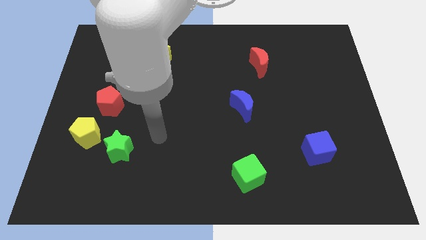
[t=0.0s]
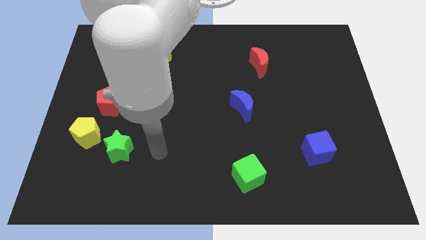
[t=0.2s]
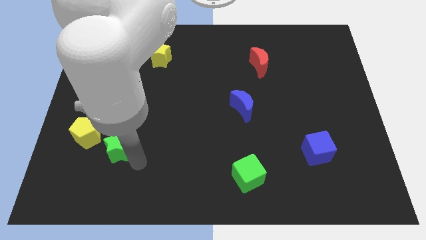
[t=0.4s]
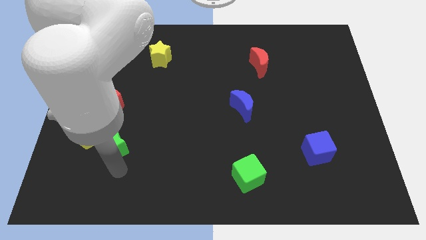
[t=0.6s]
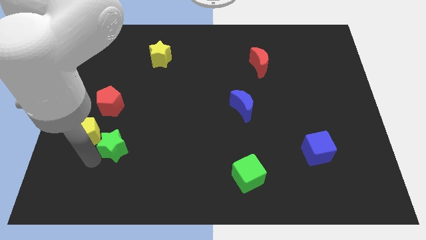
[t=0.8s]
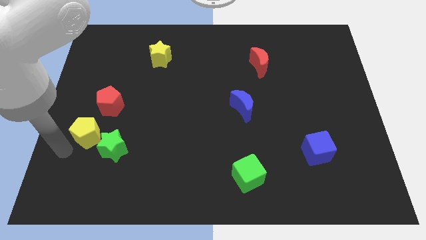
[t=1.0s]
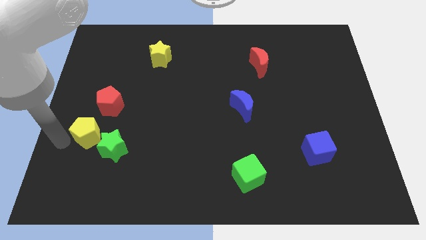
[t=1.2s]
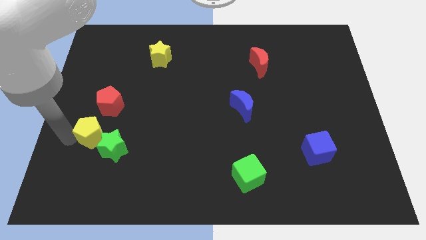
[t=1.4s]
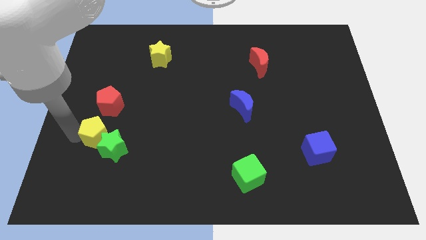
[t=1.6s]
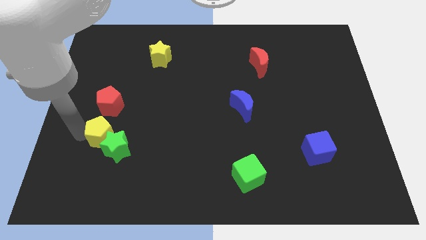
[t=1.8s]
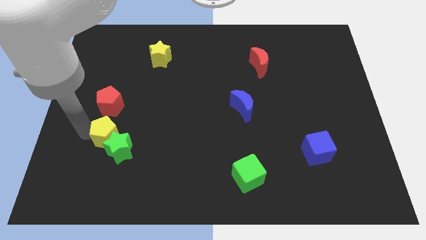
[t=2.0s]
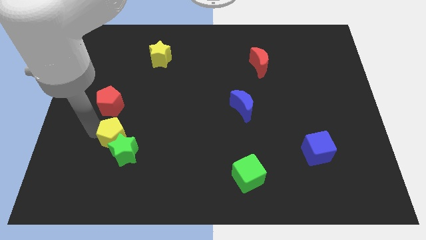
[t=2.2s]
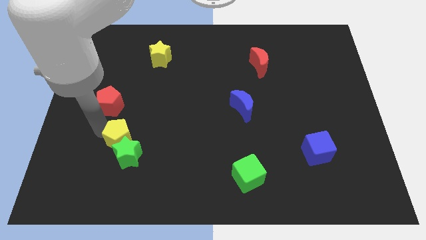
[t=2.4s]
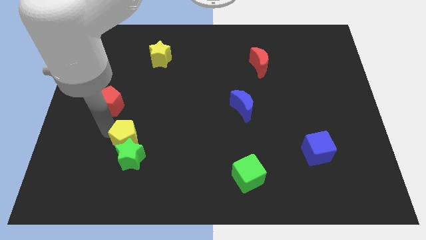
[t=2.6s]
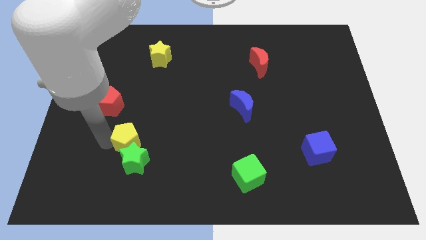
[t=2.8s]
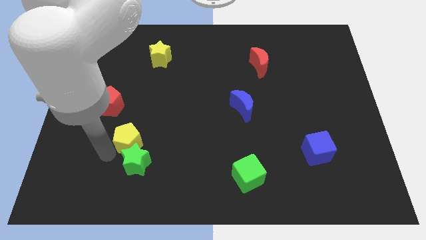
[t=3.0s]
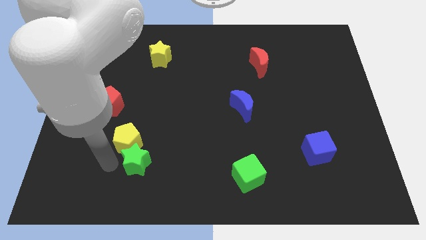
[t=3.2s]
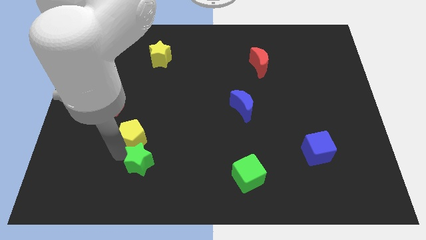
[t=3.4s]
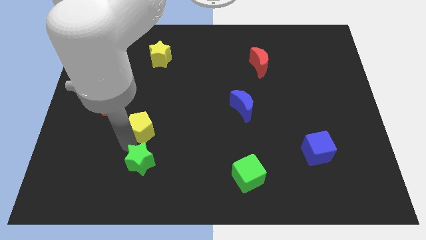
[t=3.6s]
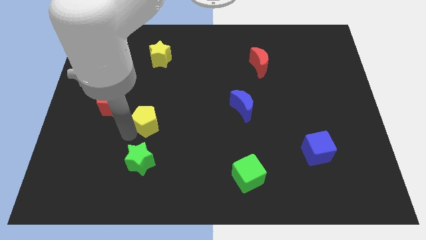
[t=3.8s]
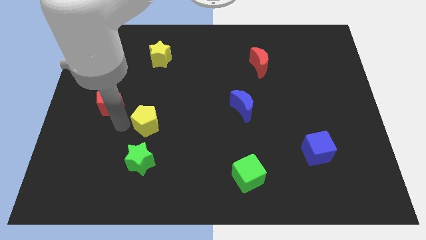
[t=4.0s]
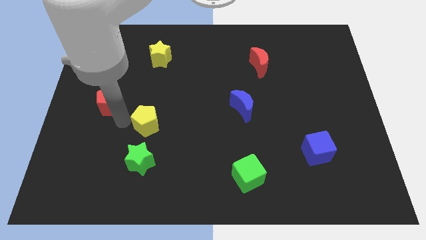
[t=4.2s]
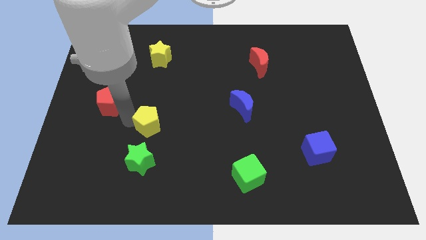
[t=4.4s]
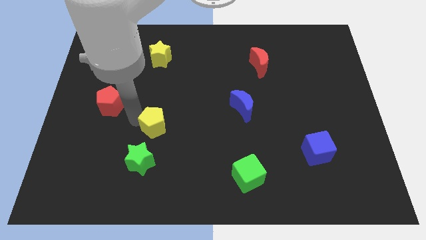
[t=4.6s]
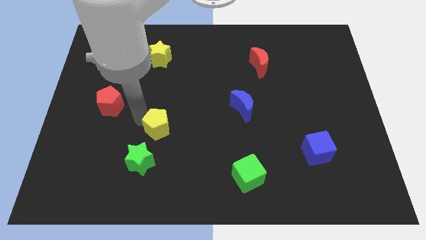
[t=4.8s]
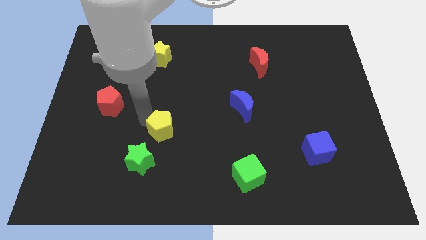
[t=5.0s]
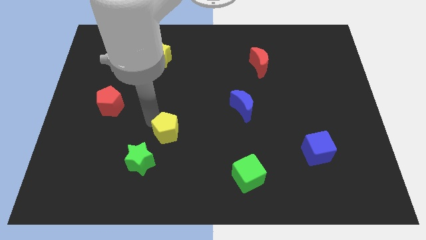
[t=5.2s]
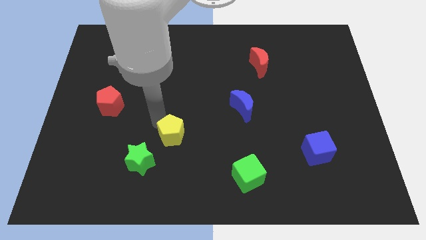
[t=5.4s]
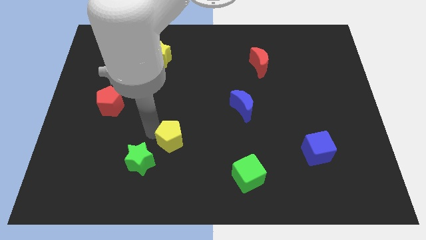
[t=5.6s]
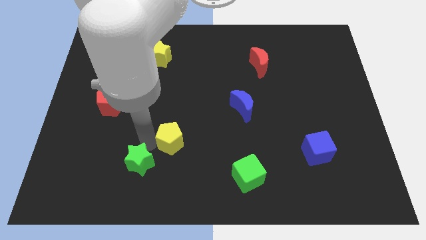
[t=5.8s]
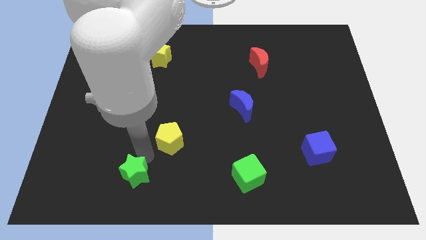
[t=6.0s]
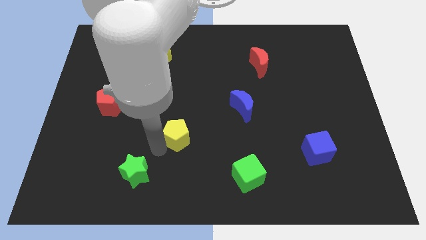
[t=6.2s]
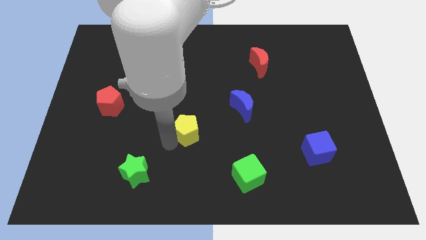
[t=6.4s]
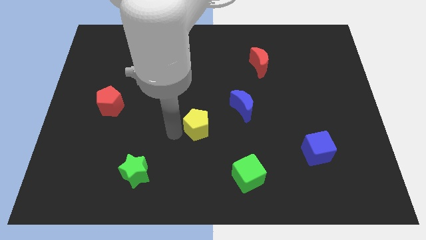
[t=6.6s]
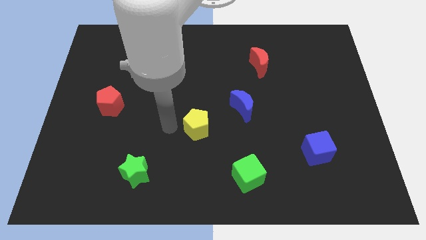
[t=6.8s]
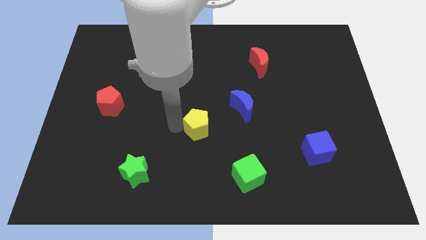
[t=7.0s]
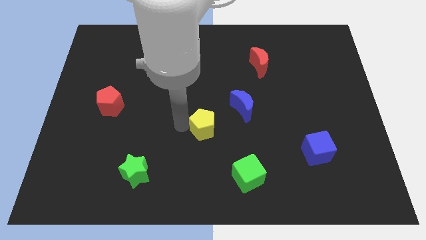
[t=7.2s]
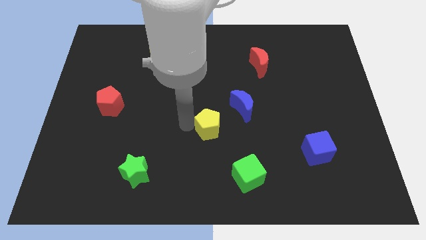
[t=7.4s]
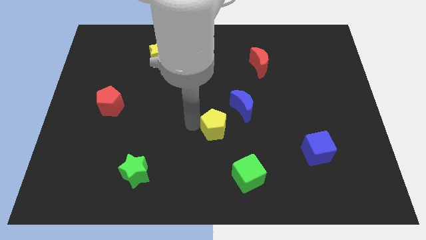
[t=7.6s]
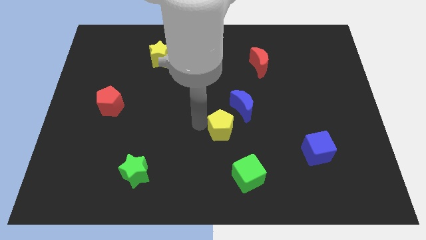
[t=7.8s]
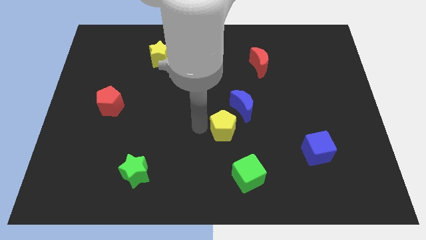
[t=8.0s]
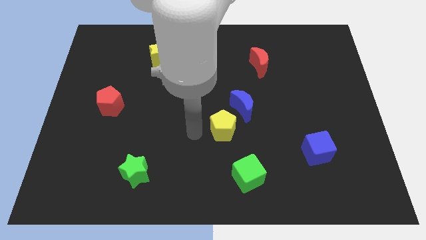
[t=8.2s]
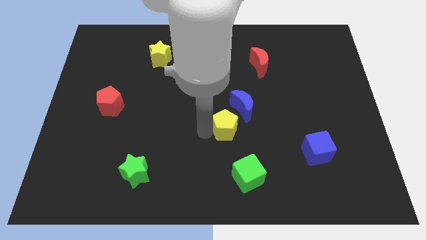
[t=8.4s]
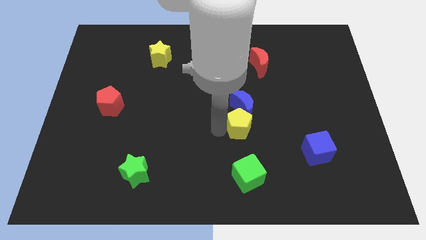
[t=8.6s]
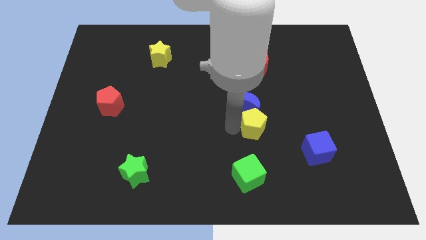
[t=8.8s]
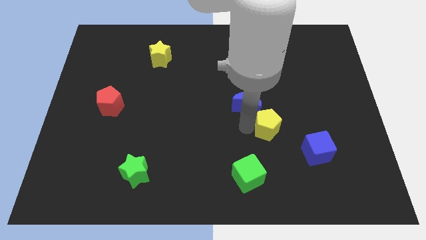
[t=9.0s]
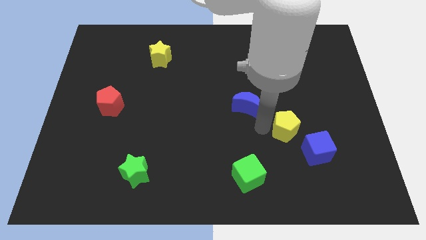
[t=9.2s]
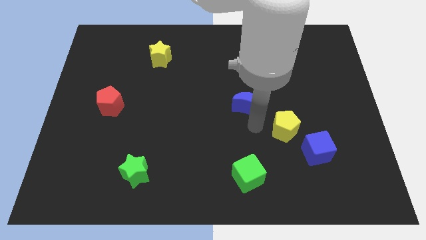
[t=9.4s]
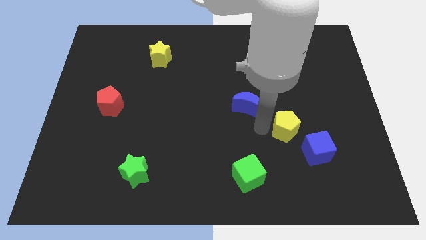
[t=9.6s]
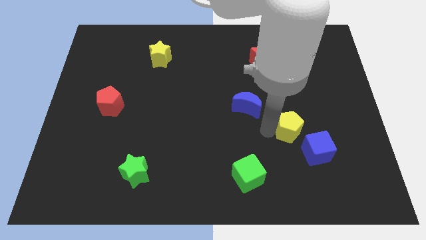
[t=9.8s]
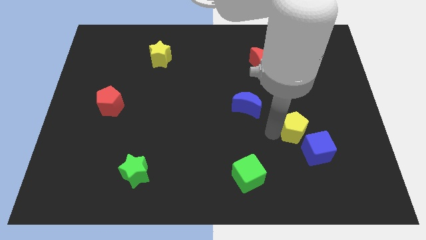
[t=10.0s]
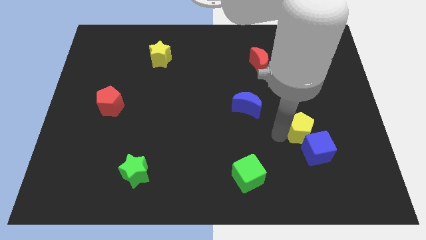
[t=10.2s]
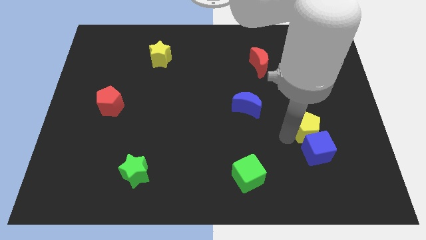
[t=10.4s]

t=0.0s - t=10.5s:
slide the yellow pentagon diagonally up and to the right of the blue cube

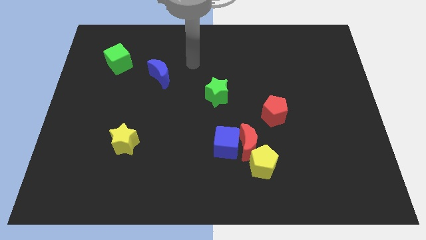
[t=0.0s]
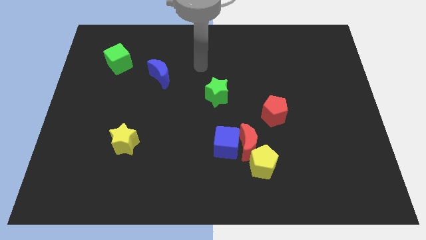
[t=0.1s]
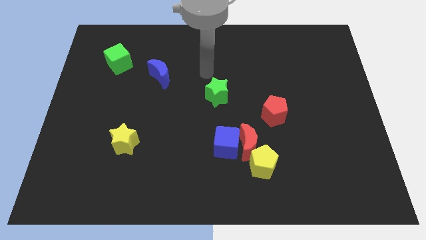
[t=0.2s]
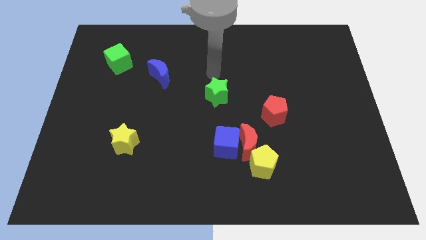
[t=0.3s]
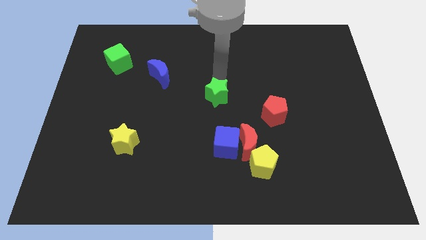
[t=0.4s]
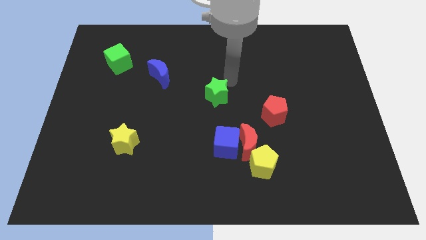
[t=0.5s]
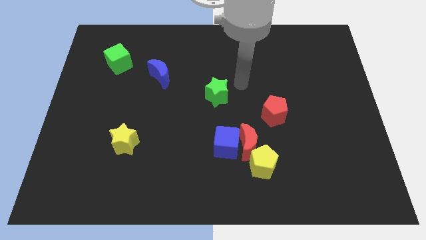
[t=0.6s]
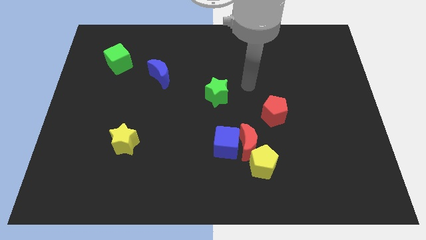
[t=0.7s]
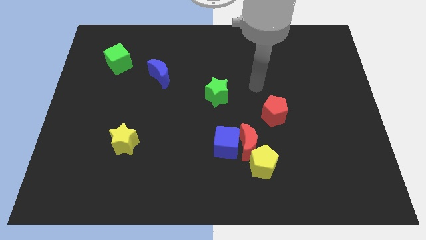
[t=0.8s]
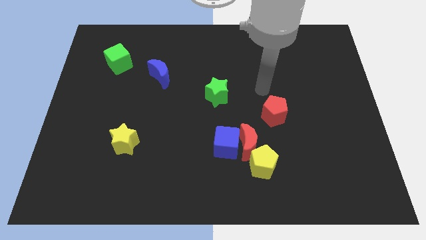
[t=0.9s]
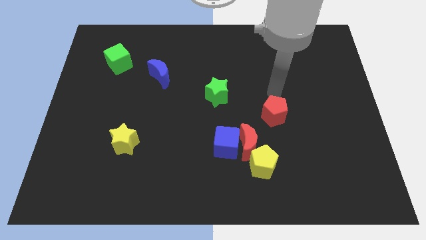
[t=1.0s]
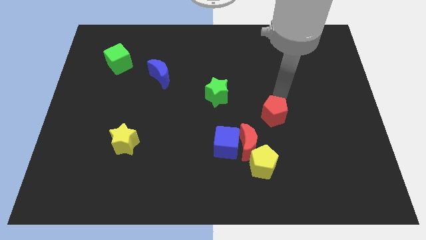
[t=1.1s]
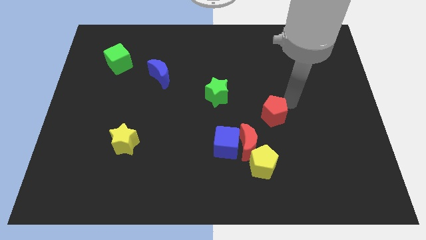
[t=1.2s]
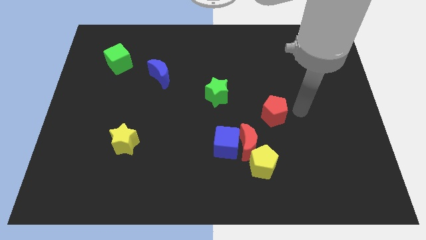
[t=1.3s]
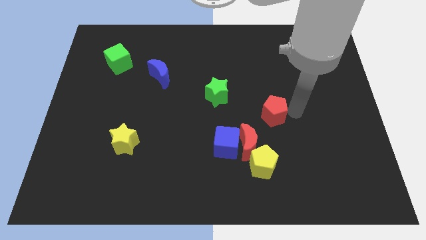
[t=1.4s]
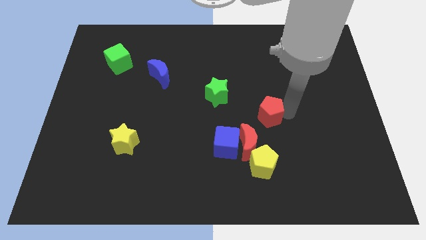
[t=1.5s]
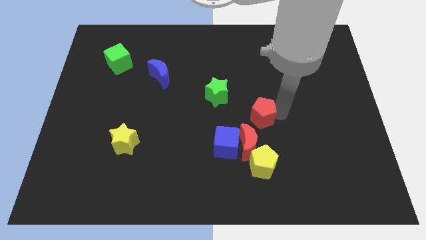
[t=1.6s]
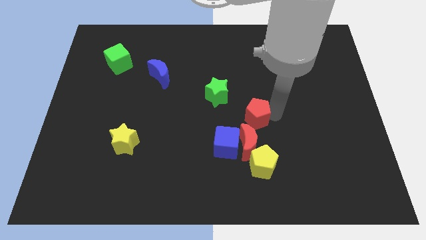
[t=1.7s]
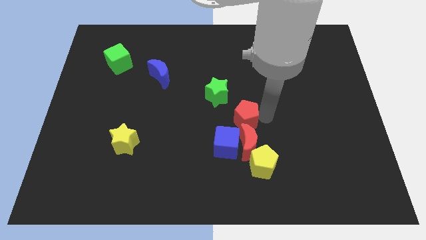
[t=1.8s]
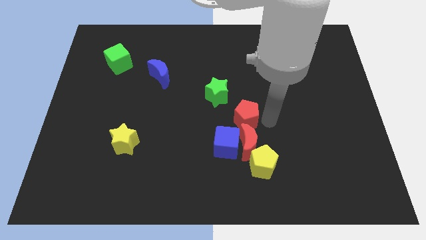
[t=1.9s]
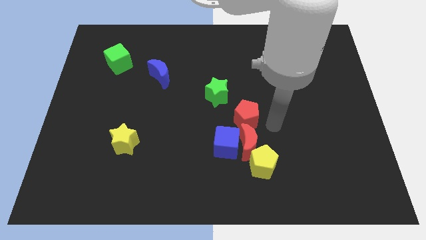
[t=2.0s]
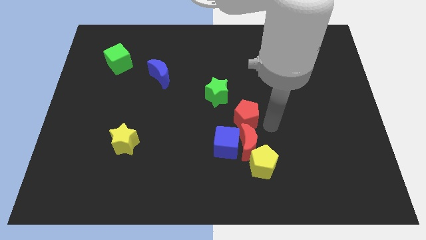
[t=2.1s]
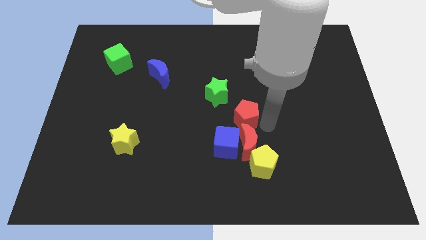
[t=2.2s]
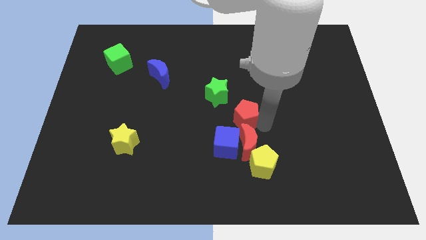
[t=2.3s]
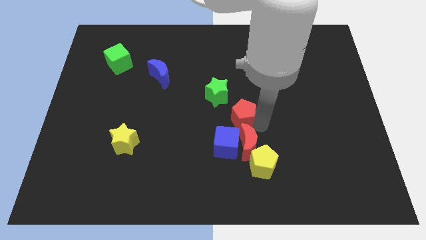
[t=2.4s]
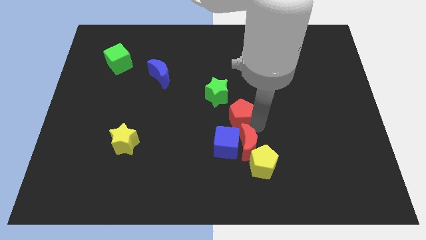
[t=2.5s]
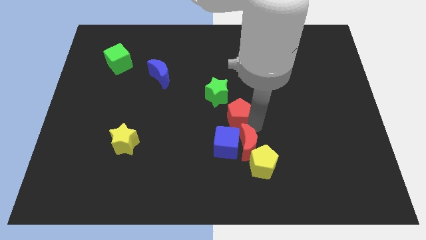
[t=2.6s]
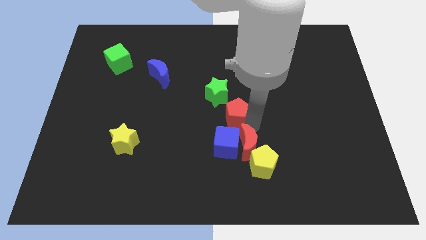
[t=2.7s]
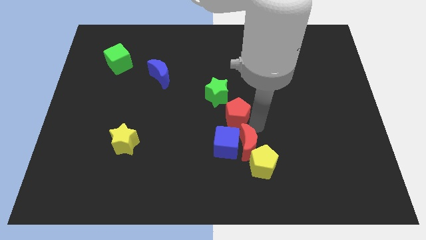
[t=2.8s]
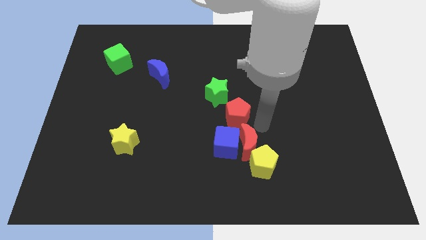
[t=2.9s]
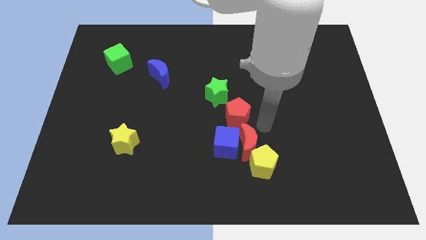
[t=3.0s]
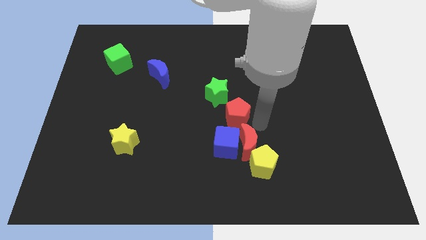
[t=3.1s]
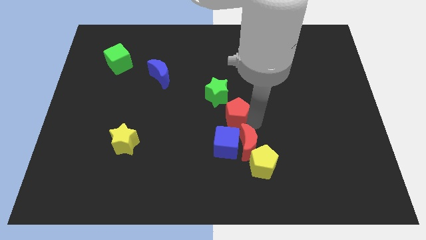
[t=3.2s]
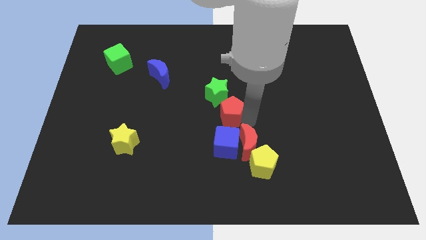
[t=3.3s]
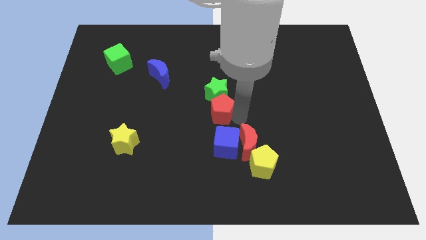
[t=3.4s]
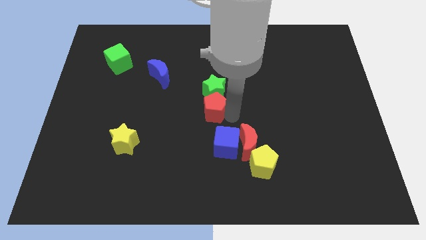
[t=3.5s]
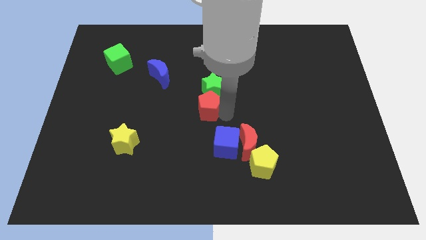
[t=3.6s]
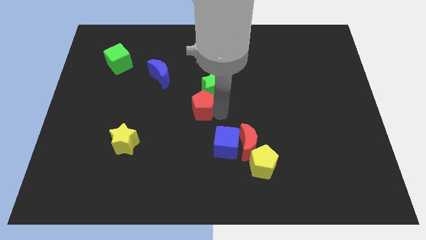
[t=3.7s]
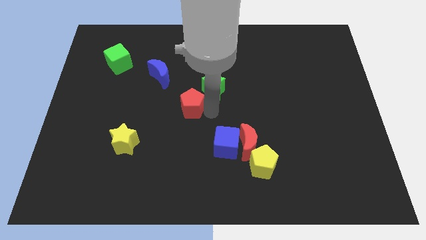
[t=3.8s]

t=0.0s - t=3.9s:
move the red pentagon just left of the green star
